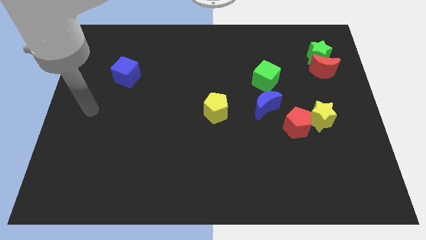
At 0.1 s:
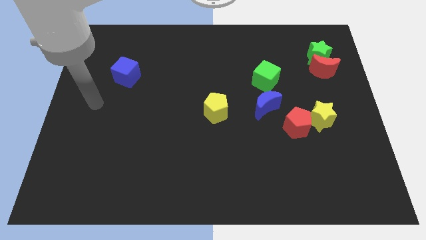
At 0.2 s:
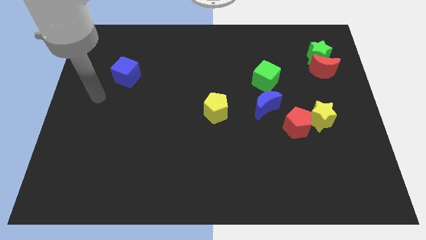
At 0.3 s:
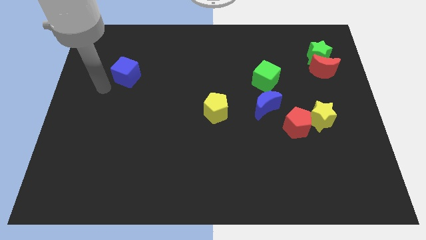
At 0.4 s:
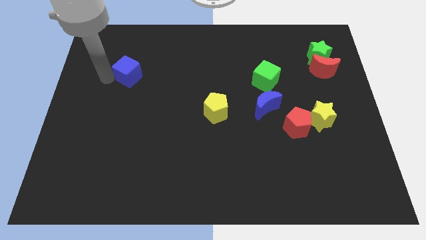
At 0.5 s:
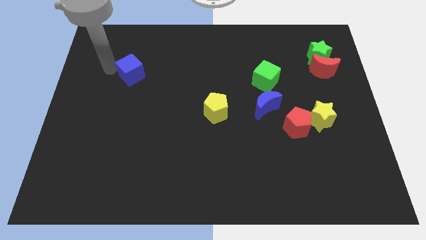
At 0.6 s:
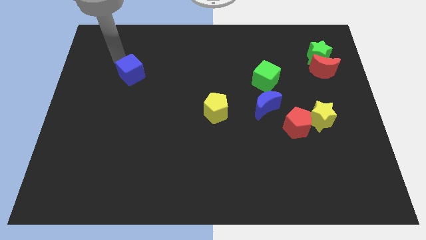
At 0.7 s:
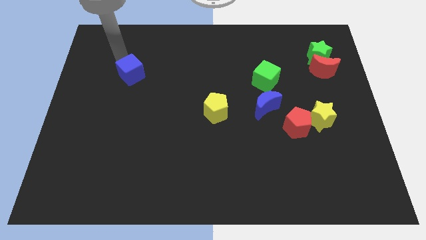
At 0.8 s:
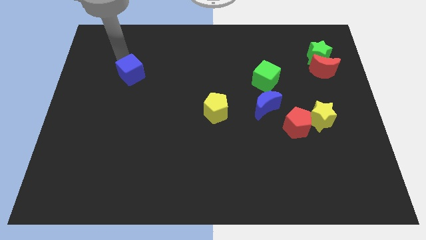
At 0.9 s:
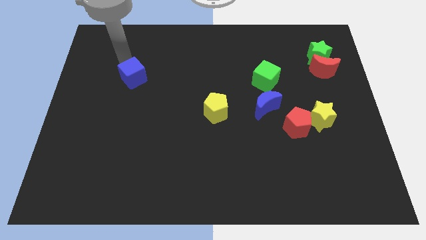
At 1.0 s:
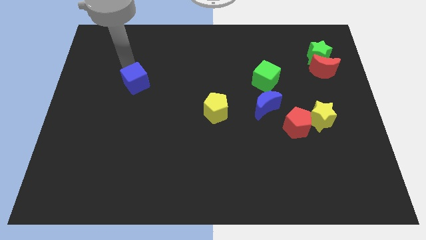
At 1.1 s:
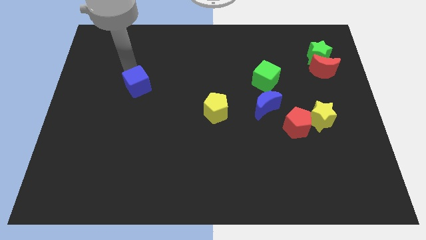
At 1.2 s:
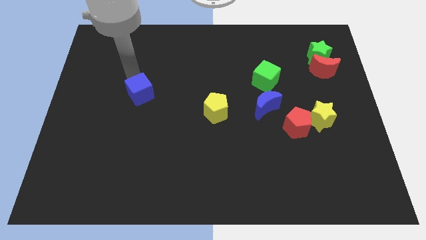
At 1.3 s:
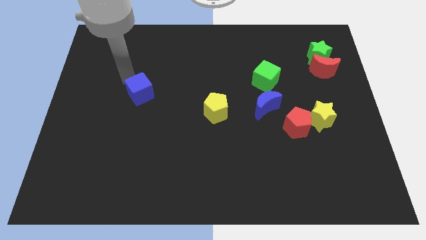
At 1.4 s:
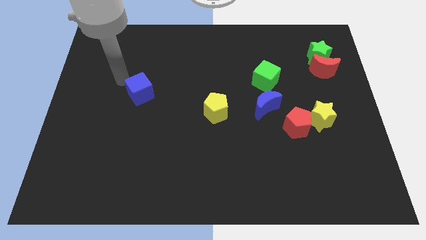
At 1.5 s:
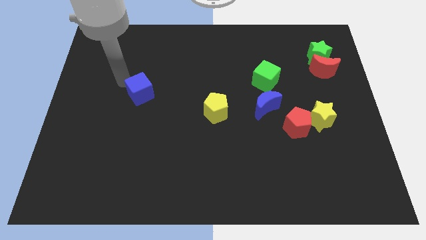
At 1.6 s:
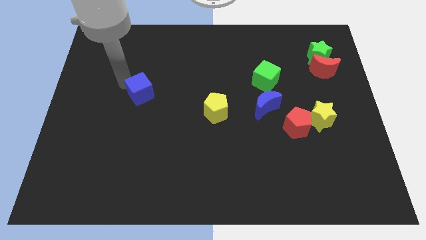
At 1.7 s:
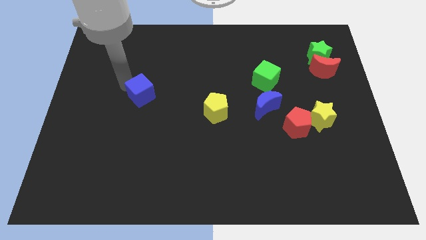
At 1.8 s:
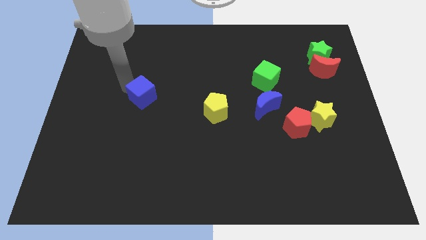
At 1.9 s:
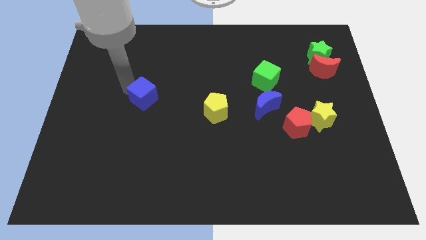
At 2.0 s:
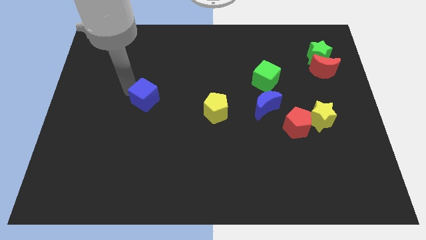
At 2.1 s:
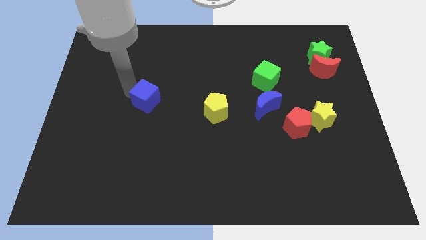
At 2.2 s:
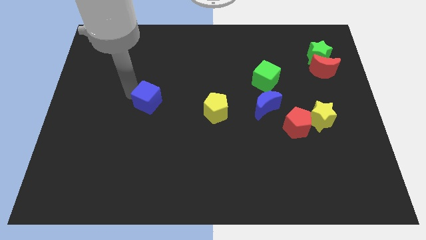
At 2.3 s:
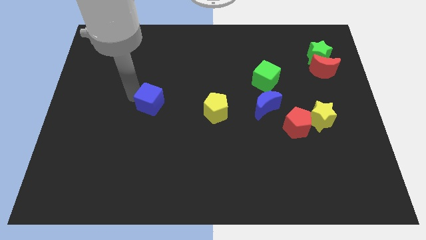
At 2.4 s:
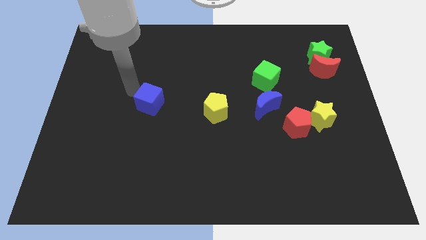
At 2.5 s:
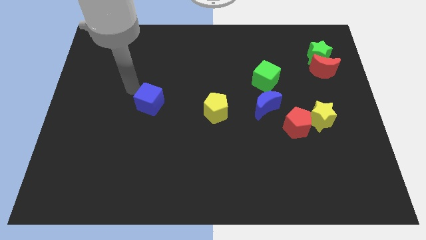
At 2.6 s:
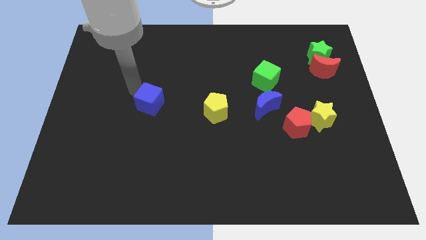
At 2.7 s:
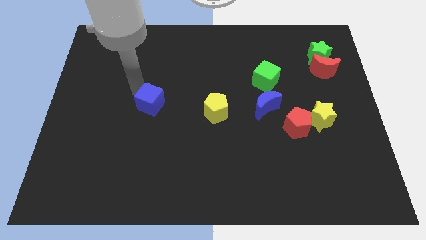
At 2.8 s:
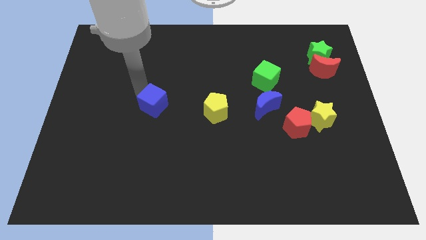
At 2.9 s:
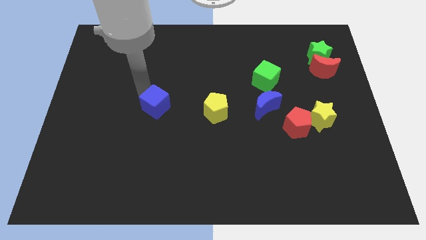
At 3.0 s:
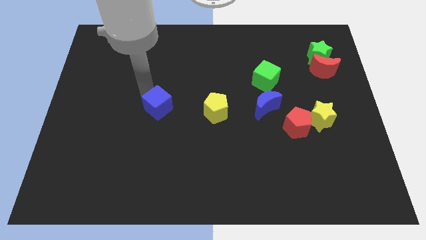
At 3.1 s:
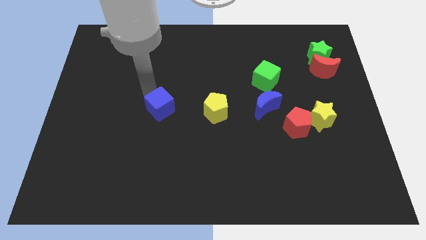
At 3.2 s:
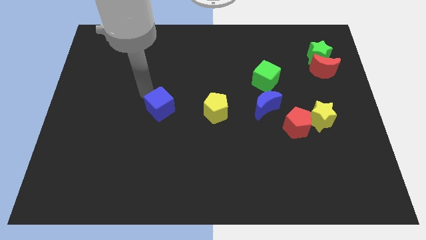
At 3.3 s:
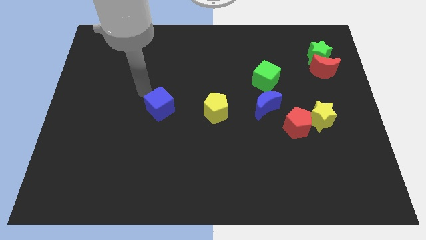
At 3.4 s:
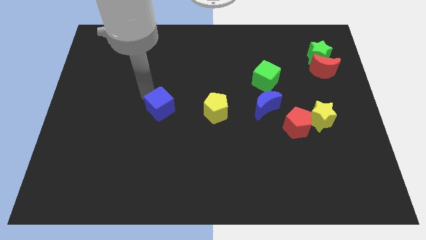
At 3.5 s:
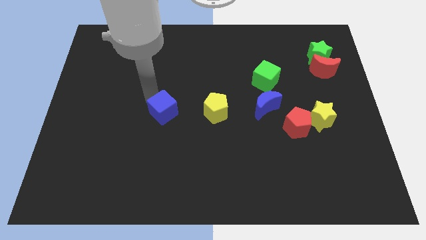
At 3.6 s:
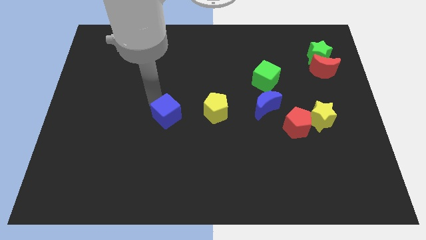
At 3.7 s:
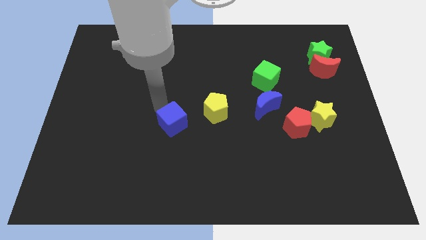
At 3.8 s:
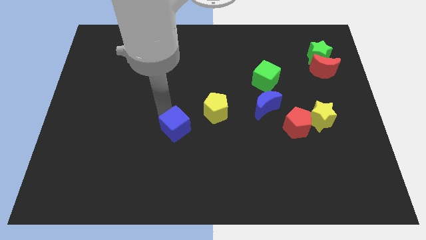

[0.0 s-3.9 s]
push the blue cube down and right

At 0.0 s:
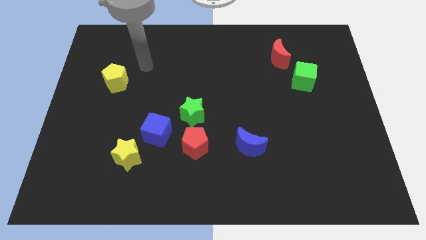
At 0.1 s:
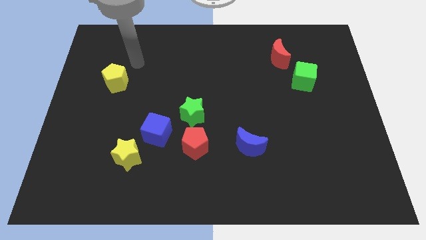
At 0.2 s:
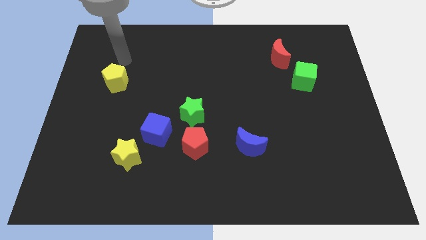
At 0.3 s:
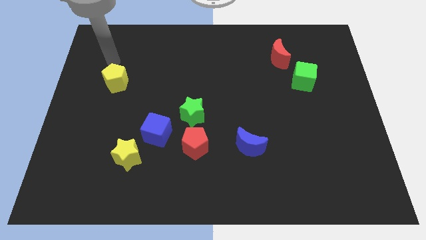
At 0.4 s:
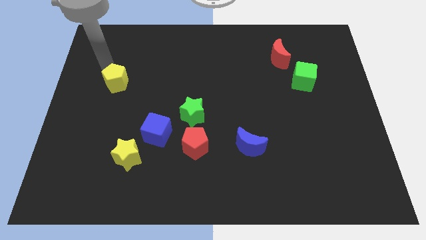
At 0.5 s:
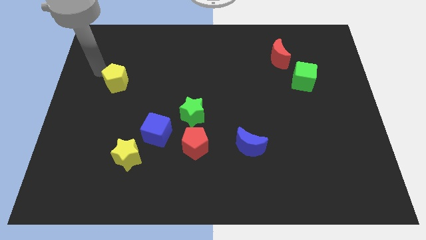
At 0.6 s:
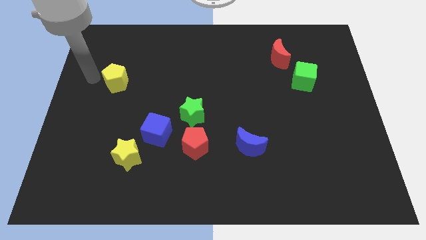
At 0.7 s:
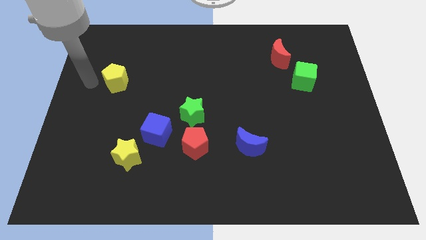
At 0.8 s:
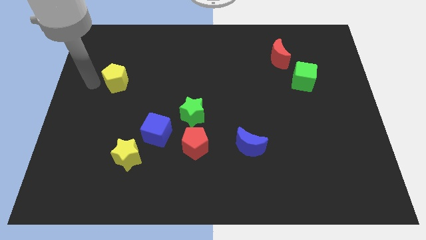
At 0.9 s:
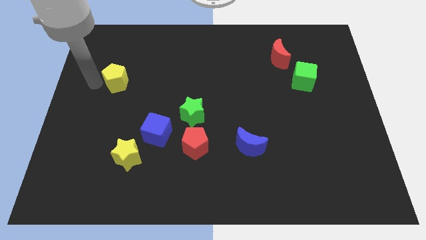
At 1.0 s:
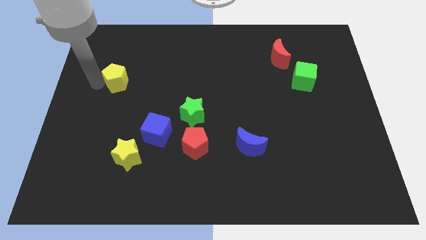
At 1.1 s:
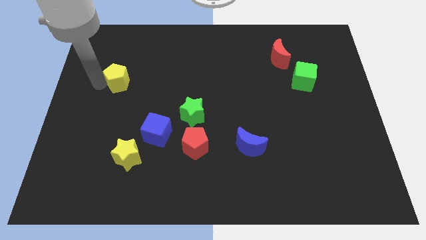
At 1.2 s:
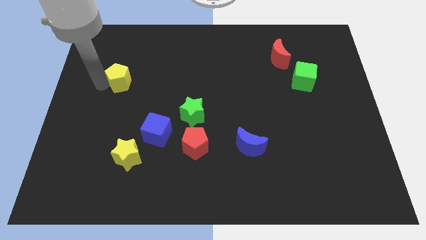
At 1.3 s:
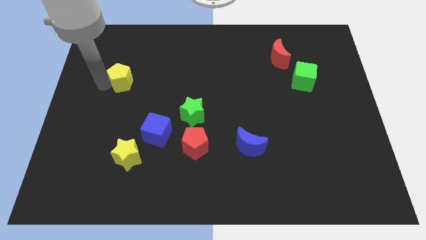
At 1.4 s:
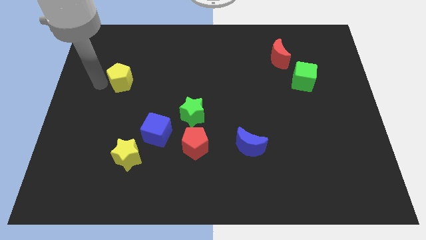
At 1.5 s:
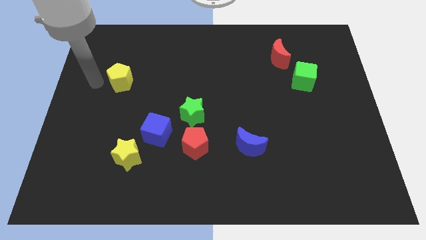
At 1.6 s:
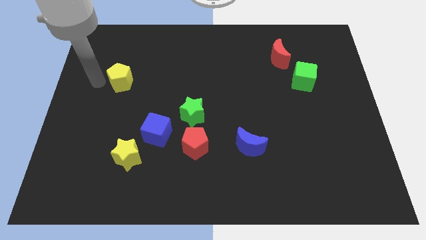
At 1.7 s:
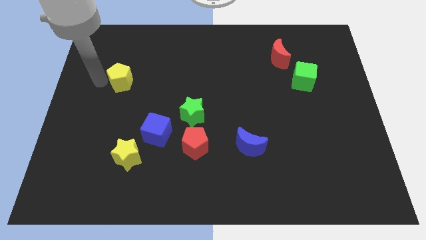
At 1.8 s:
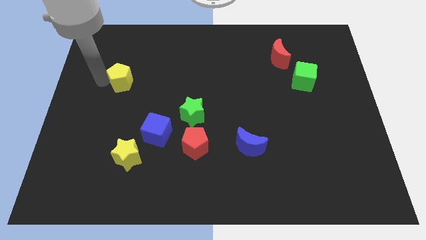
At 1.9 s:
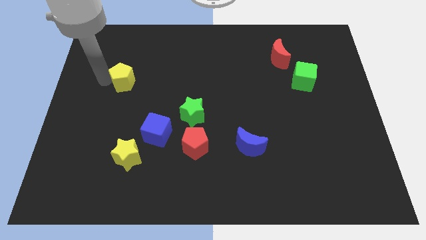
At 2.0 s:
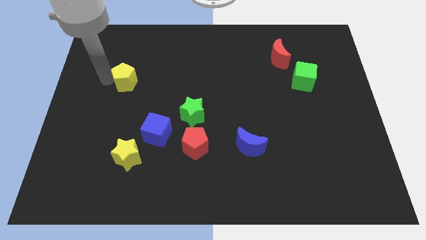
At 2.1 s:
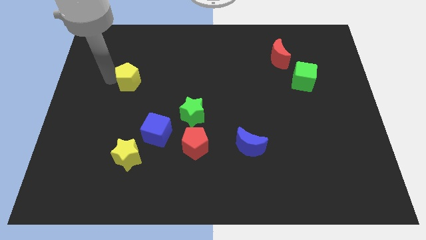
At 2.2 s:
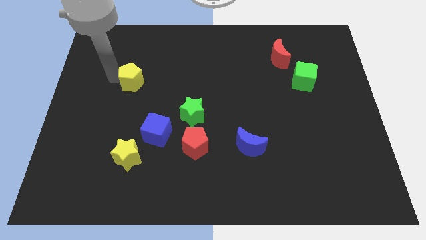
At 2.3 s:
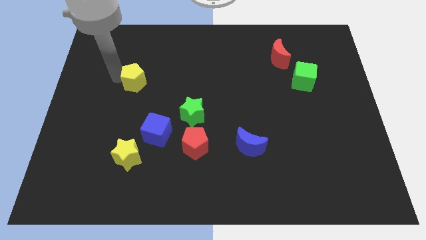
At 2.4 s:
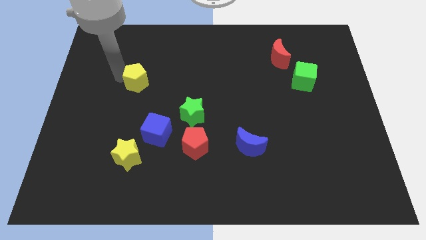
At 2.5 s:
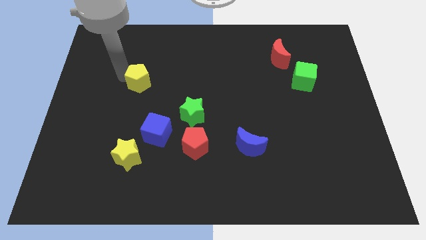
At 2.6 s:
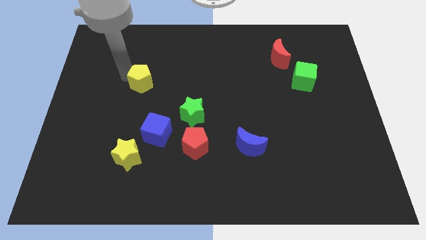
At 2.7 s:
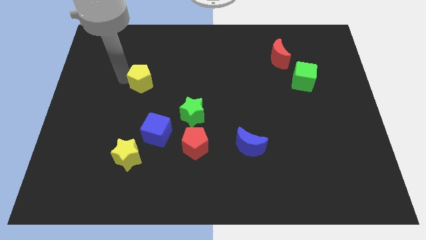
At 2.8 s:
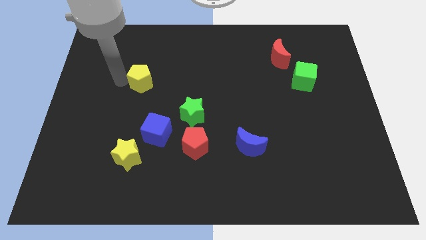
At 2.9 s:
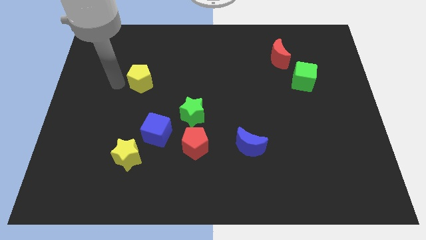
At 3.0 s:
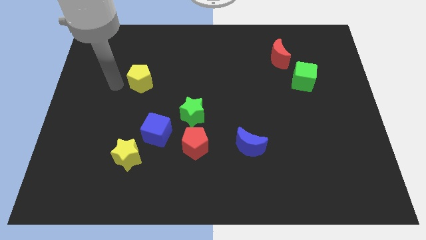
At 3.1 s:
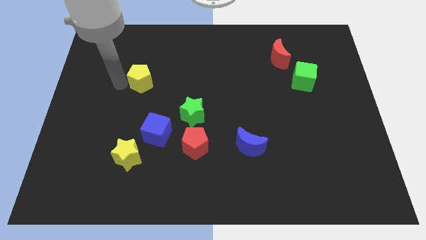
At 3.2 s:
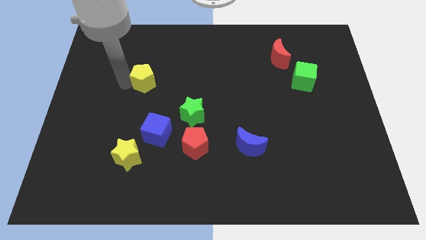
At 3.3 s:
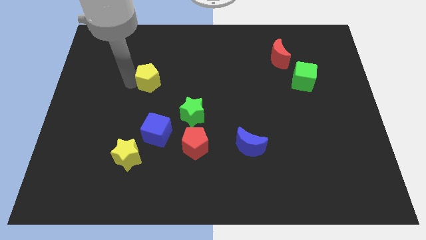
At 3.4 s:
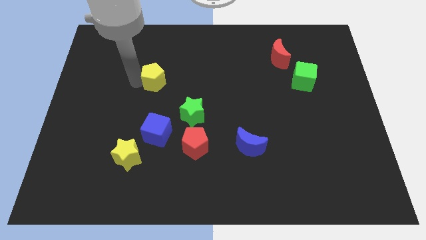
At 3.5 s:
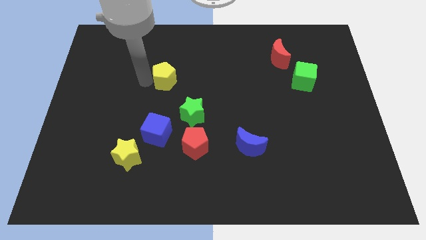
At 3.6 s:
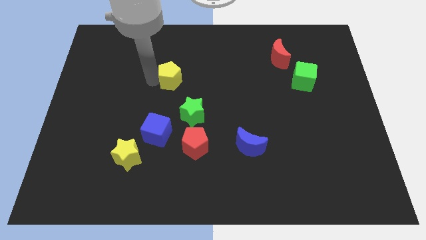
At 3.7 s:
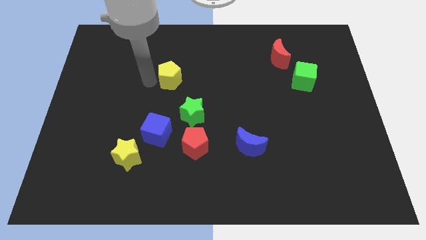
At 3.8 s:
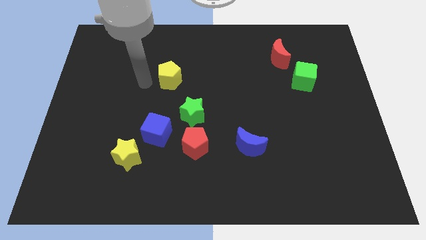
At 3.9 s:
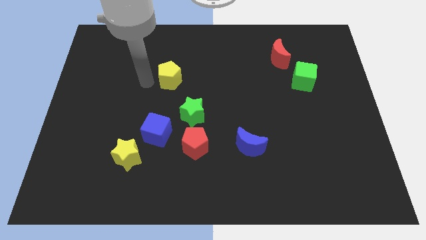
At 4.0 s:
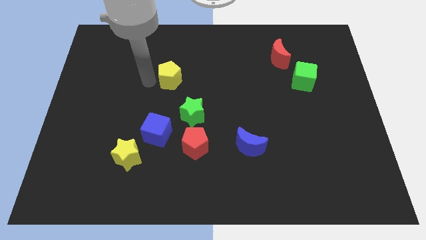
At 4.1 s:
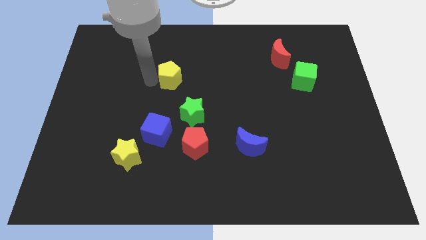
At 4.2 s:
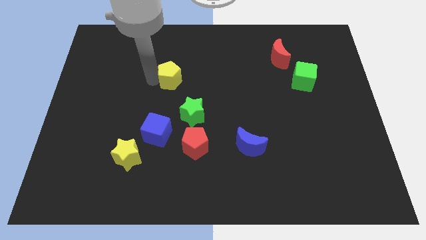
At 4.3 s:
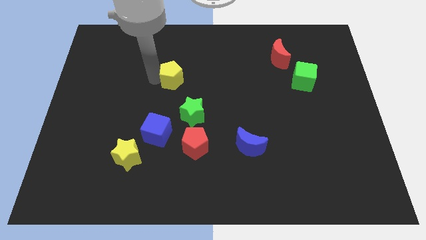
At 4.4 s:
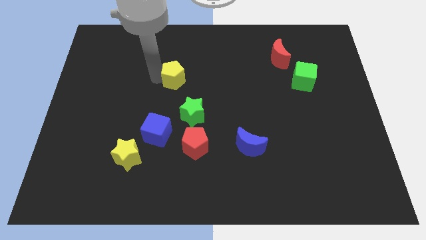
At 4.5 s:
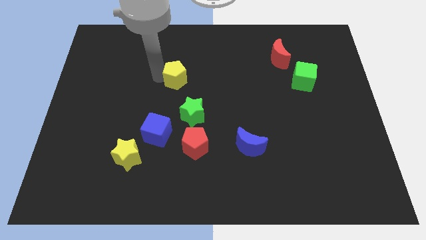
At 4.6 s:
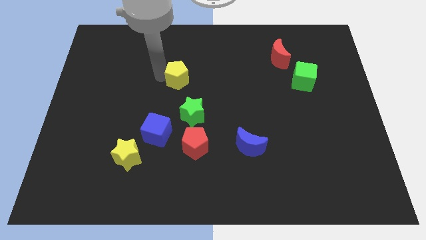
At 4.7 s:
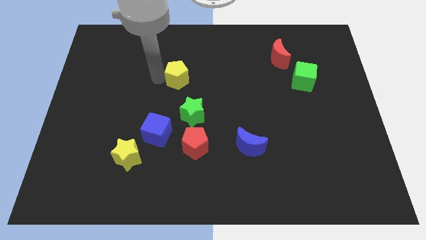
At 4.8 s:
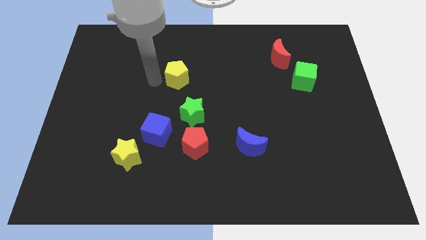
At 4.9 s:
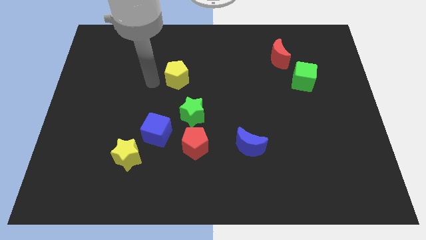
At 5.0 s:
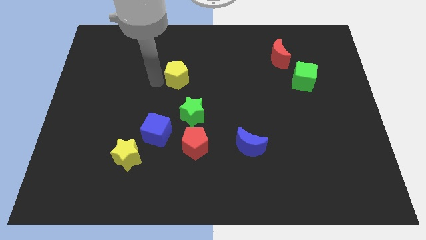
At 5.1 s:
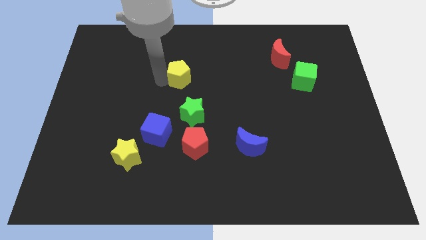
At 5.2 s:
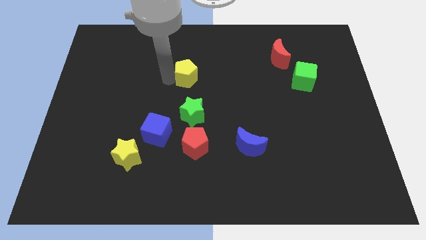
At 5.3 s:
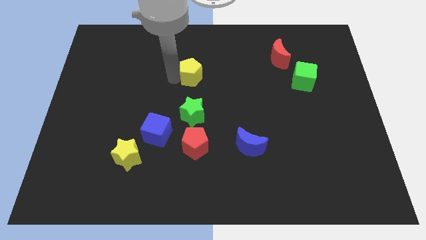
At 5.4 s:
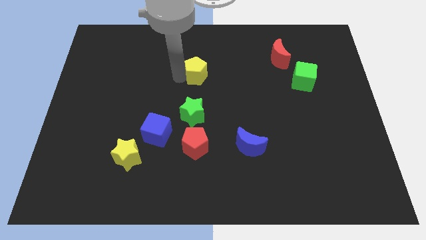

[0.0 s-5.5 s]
move the yellow pentagon right
